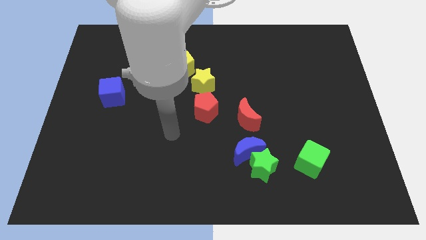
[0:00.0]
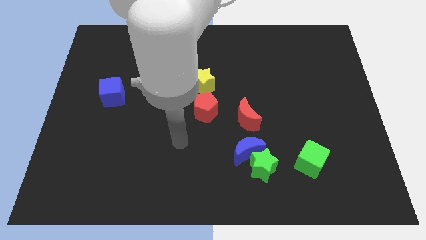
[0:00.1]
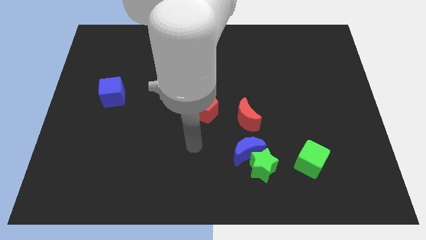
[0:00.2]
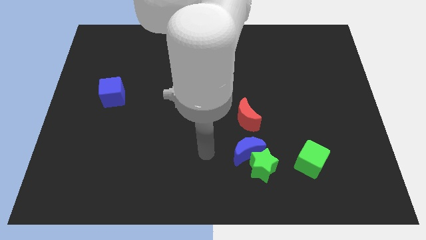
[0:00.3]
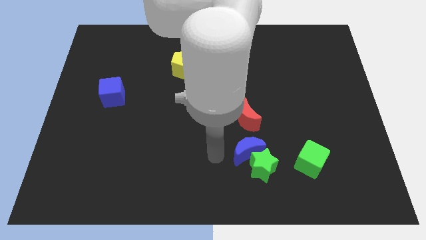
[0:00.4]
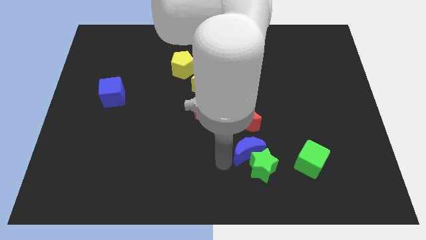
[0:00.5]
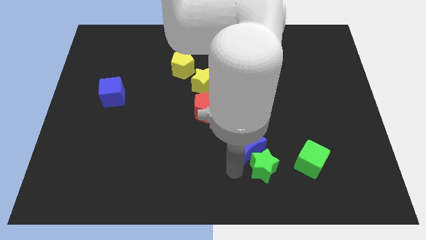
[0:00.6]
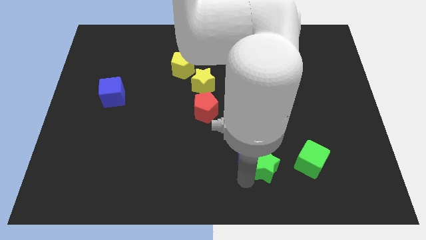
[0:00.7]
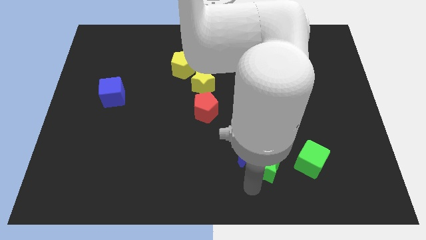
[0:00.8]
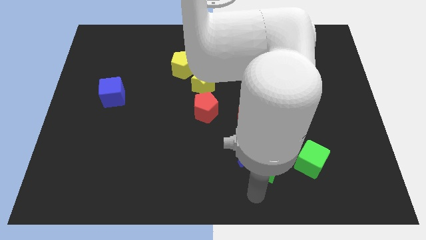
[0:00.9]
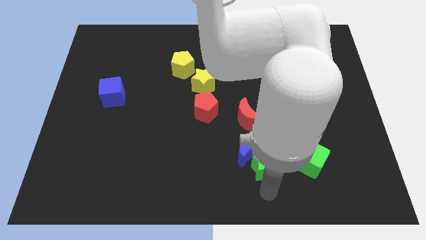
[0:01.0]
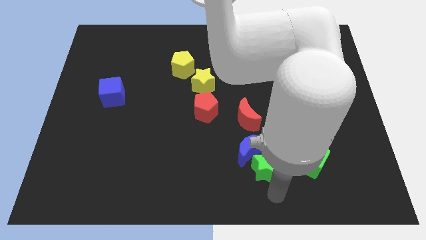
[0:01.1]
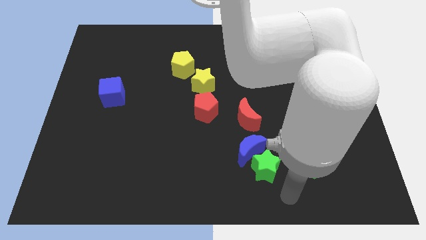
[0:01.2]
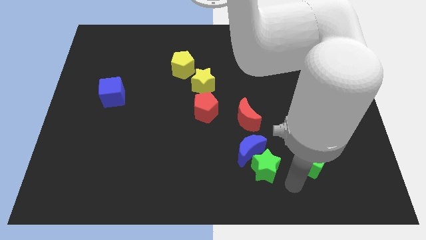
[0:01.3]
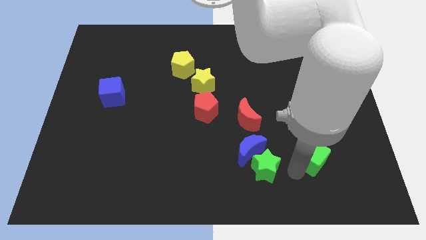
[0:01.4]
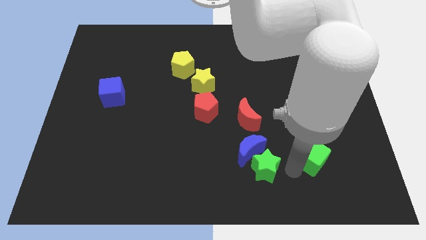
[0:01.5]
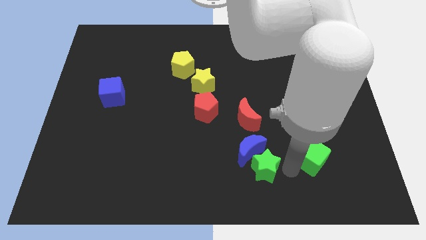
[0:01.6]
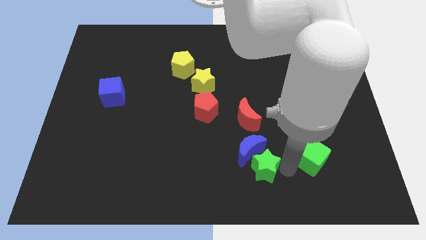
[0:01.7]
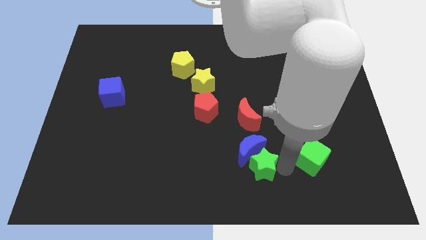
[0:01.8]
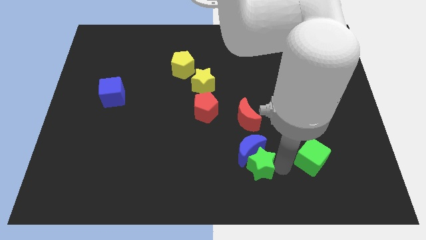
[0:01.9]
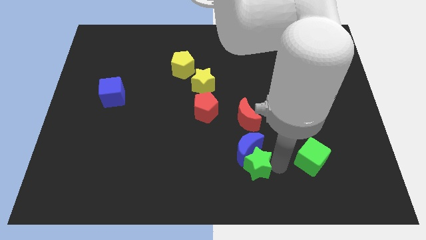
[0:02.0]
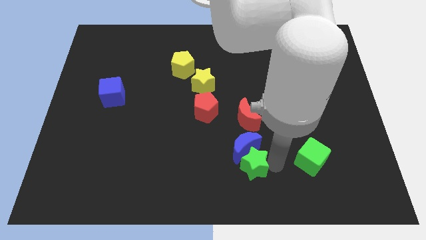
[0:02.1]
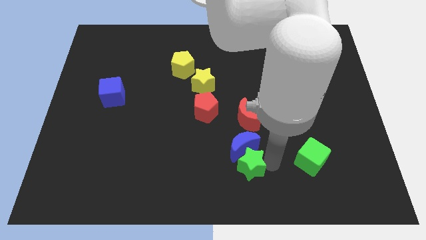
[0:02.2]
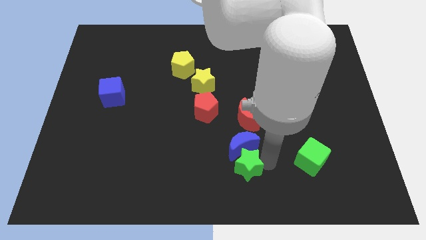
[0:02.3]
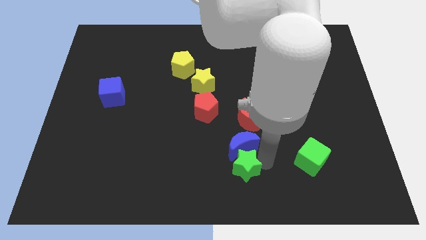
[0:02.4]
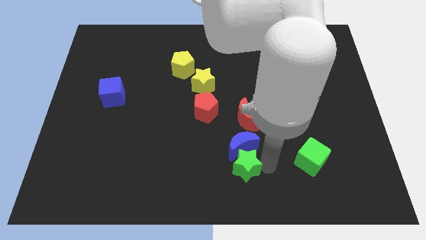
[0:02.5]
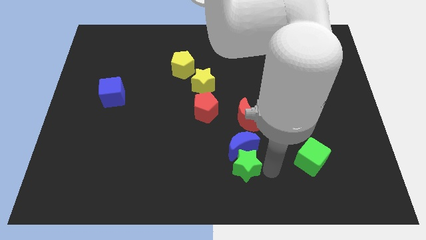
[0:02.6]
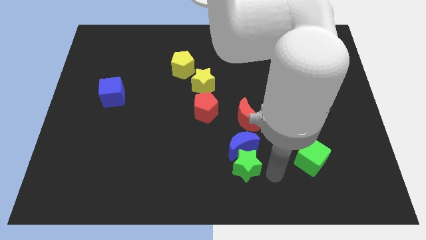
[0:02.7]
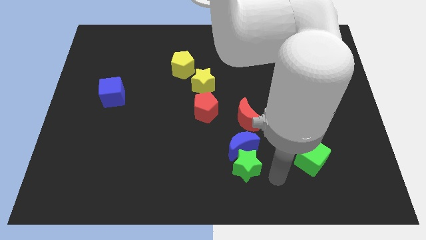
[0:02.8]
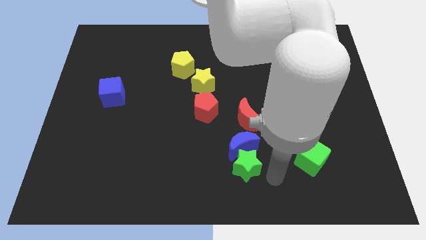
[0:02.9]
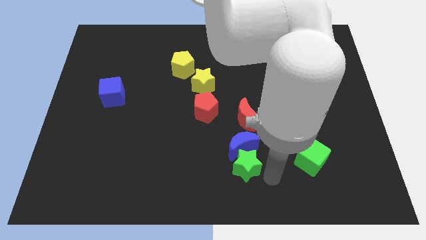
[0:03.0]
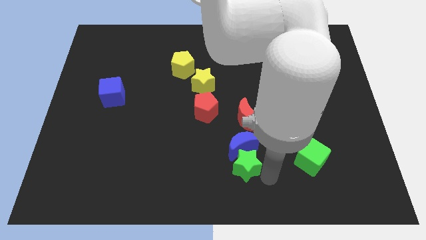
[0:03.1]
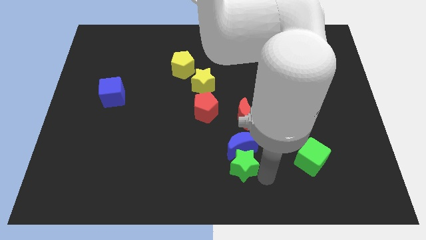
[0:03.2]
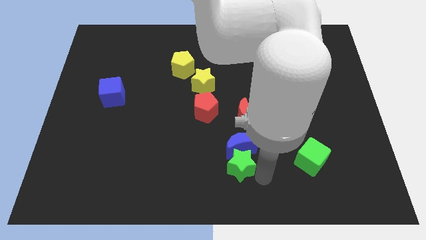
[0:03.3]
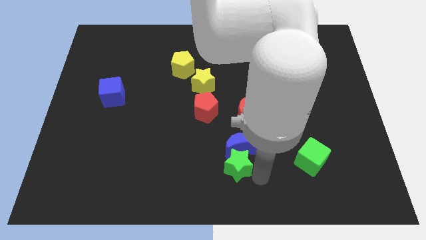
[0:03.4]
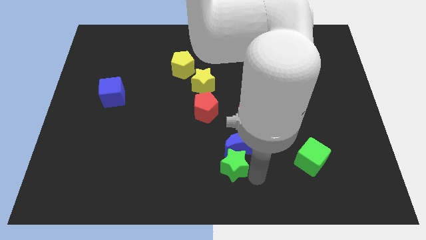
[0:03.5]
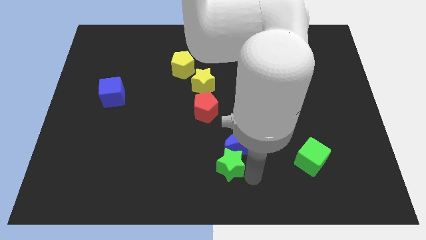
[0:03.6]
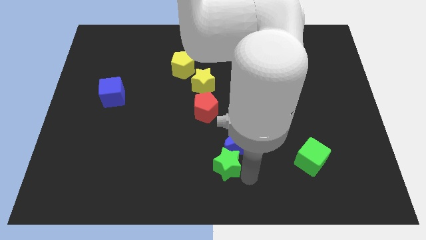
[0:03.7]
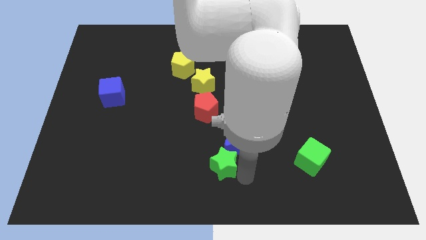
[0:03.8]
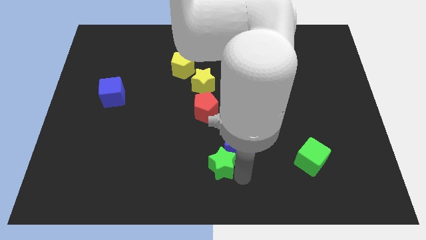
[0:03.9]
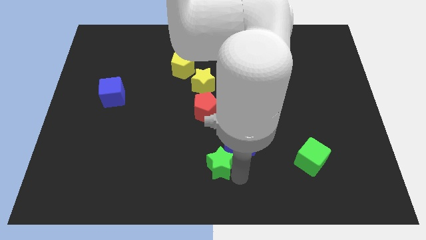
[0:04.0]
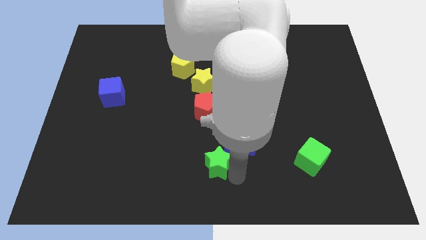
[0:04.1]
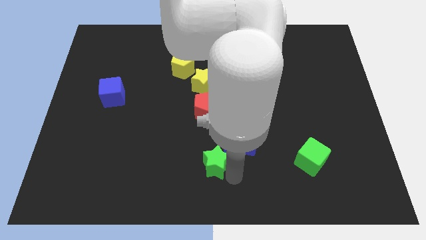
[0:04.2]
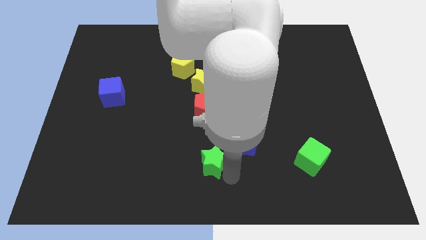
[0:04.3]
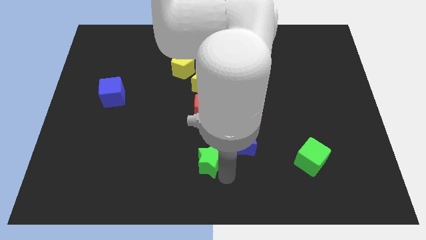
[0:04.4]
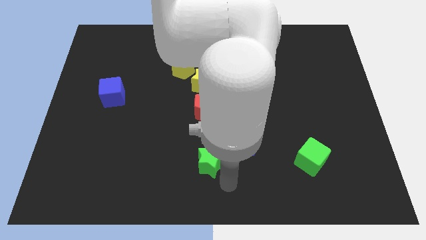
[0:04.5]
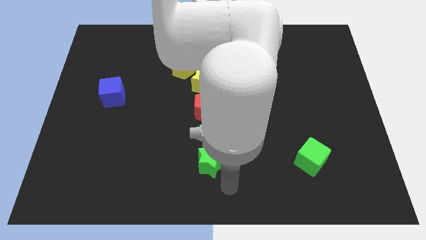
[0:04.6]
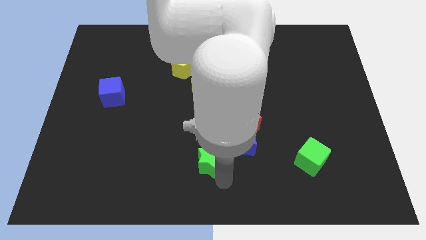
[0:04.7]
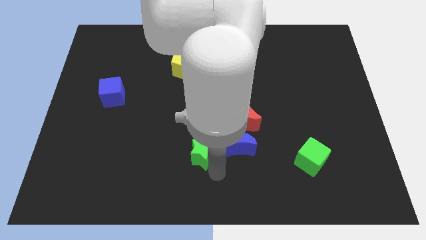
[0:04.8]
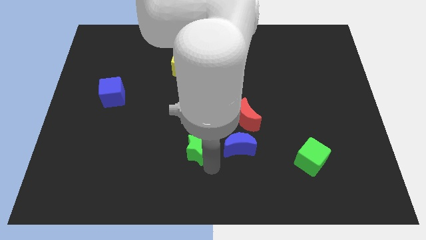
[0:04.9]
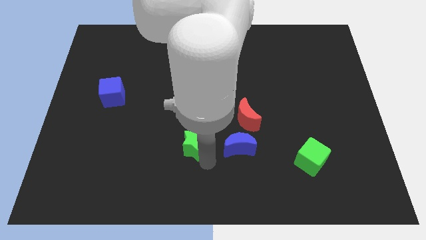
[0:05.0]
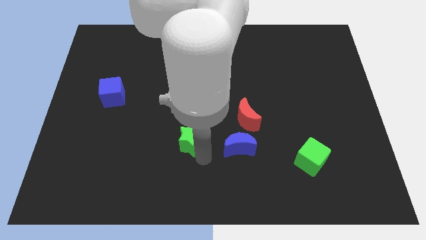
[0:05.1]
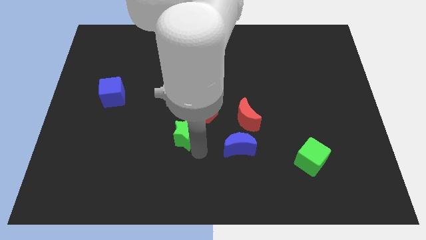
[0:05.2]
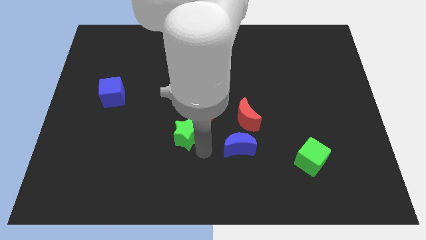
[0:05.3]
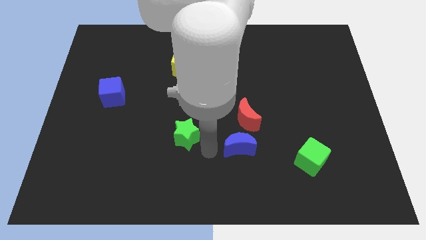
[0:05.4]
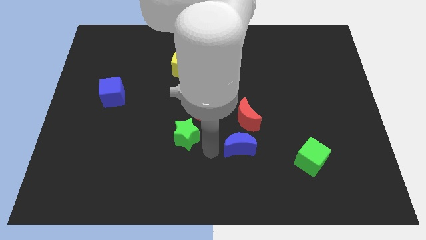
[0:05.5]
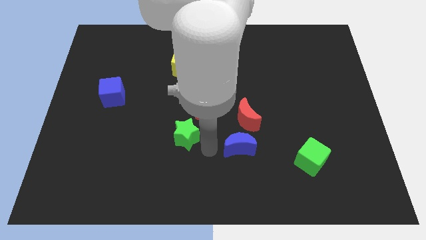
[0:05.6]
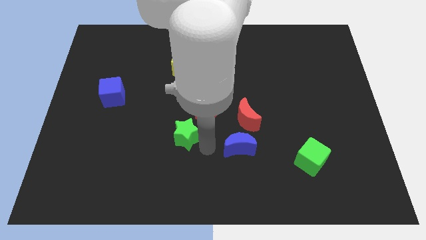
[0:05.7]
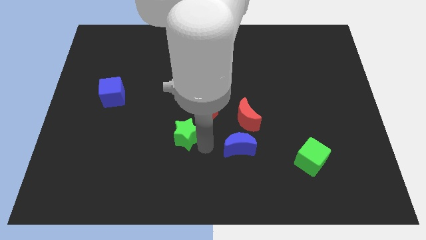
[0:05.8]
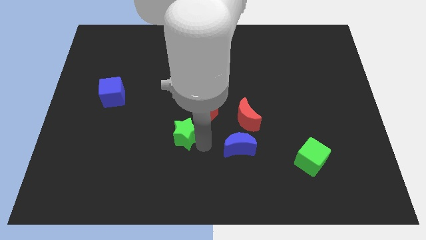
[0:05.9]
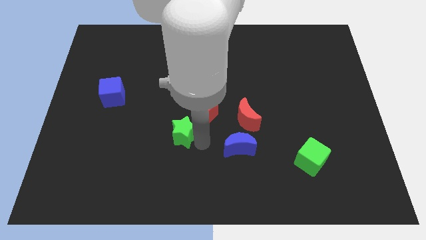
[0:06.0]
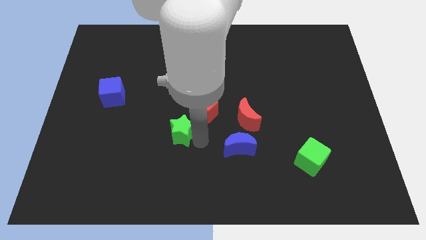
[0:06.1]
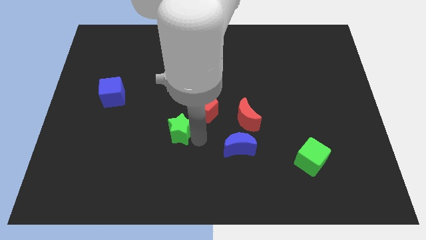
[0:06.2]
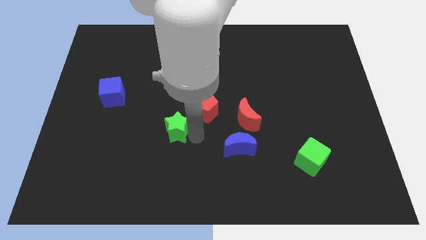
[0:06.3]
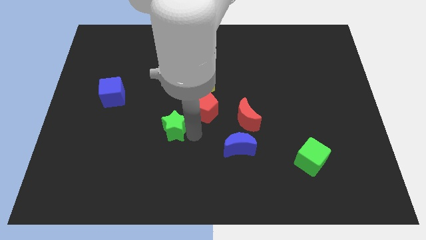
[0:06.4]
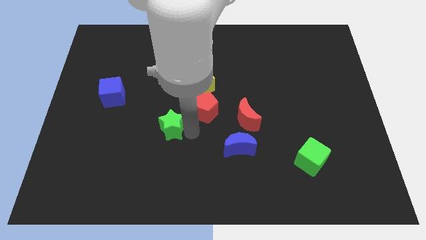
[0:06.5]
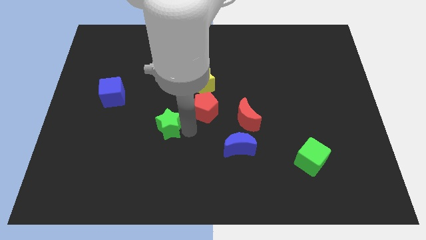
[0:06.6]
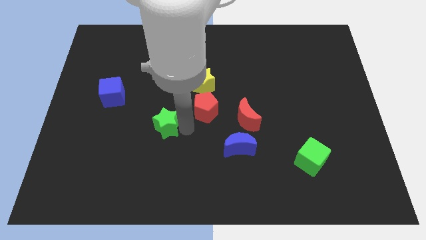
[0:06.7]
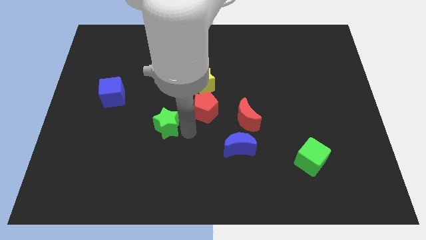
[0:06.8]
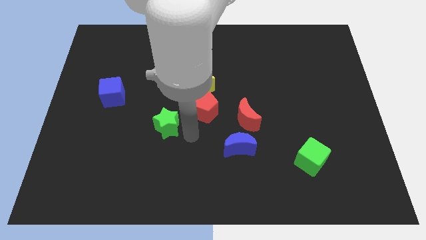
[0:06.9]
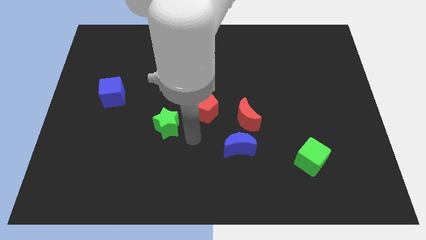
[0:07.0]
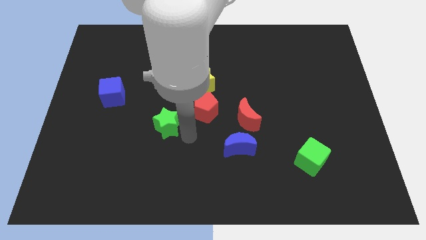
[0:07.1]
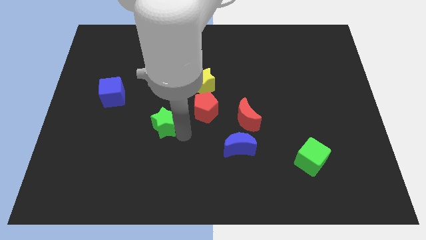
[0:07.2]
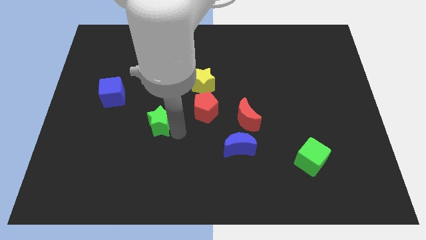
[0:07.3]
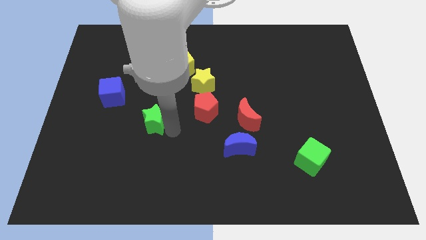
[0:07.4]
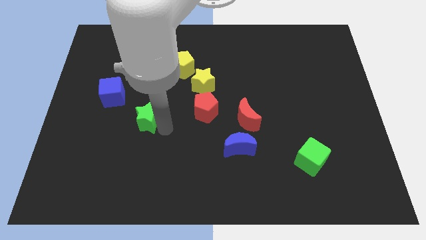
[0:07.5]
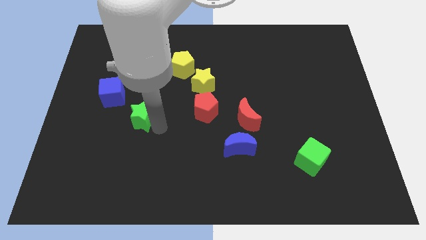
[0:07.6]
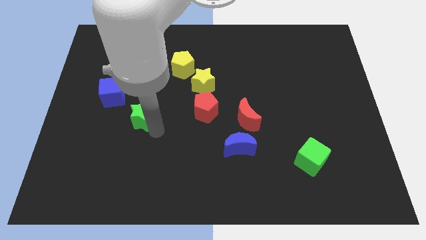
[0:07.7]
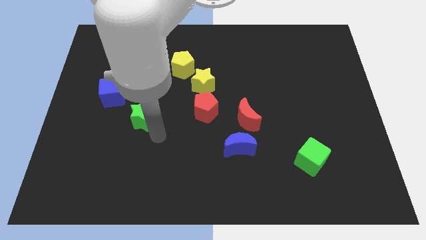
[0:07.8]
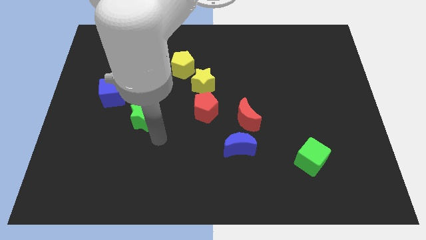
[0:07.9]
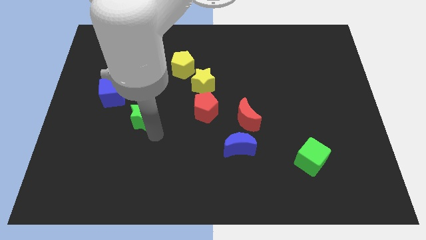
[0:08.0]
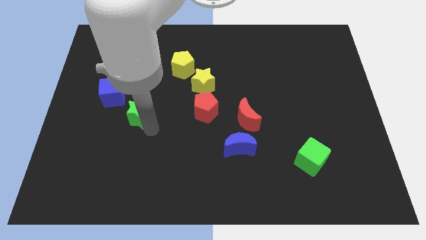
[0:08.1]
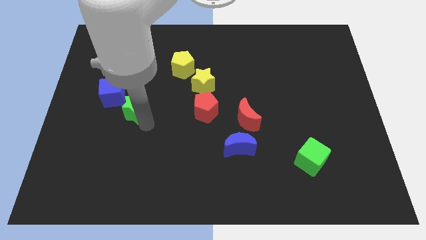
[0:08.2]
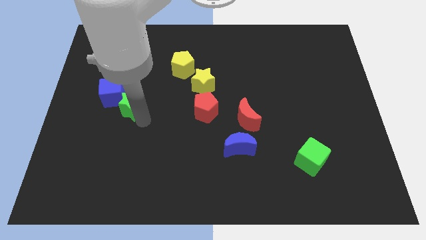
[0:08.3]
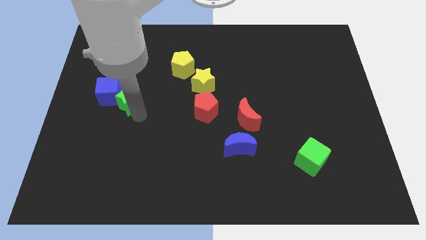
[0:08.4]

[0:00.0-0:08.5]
slide the green star to the blue cube
